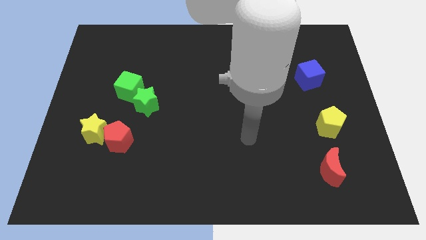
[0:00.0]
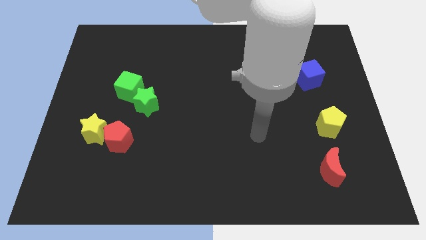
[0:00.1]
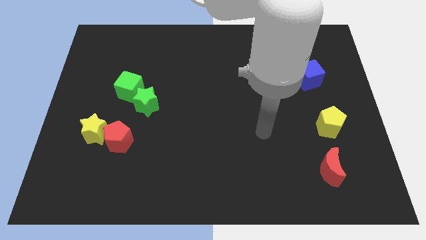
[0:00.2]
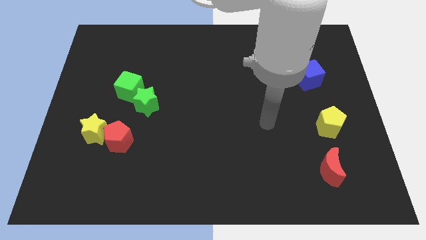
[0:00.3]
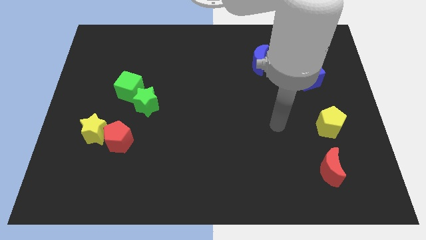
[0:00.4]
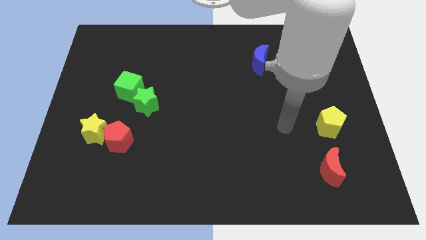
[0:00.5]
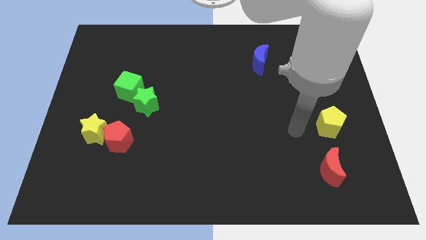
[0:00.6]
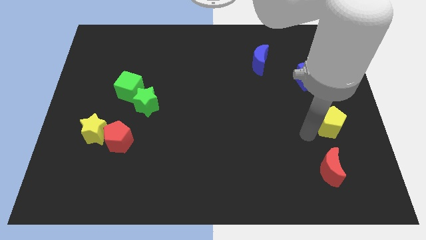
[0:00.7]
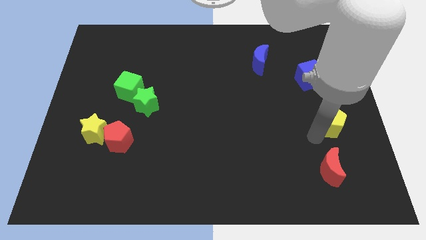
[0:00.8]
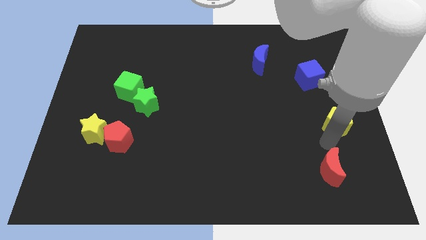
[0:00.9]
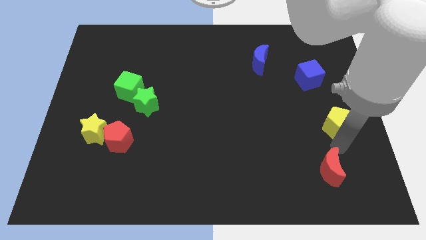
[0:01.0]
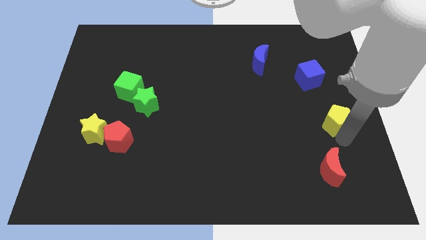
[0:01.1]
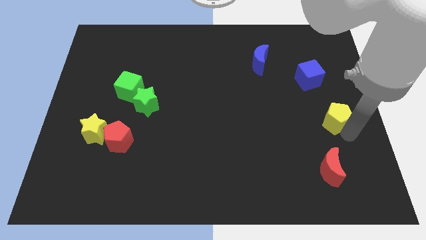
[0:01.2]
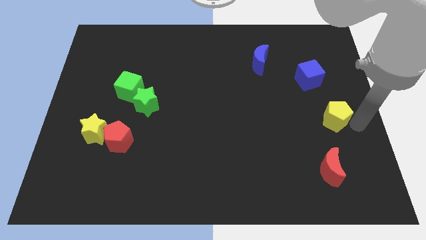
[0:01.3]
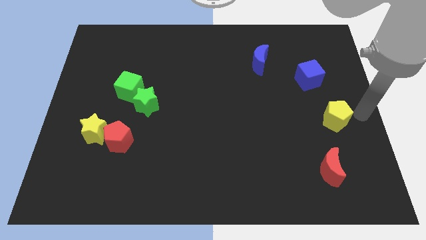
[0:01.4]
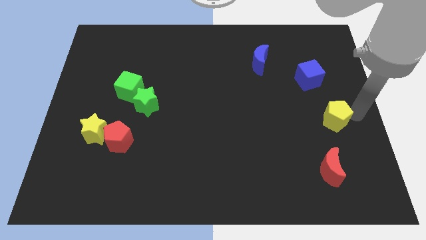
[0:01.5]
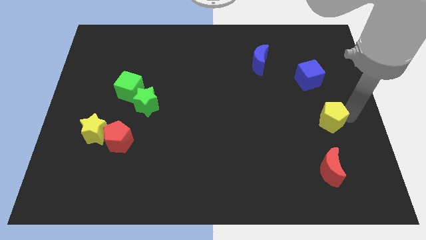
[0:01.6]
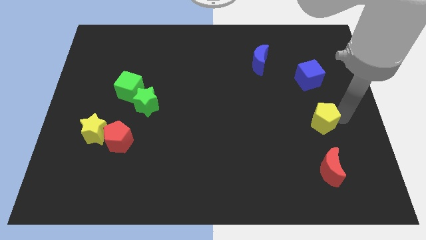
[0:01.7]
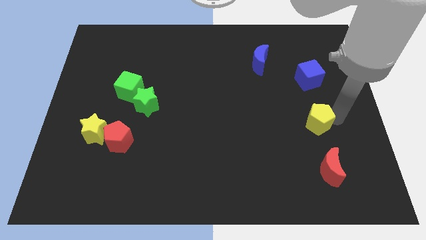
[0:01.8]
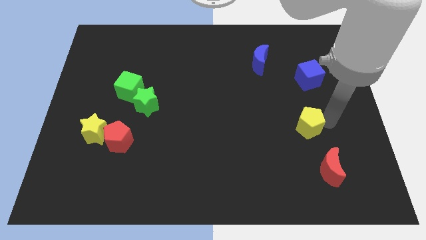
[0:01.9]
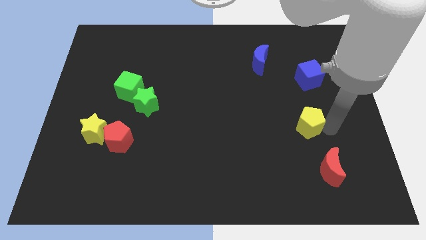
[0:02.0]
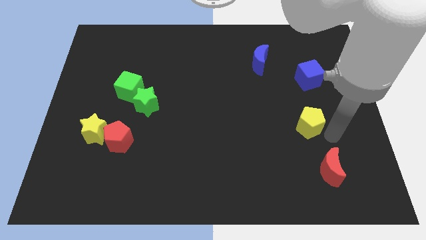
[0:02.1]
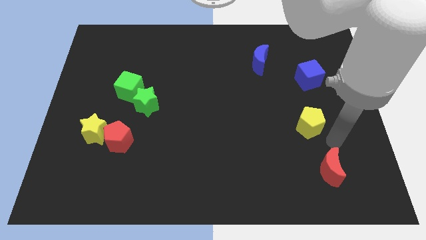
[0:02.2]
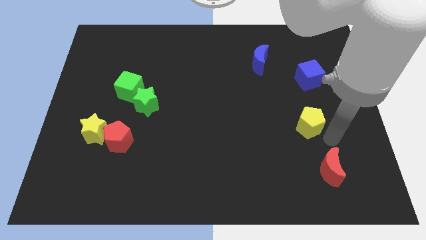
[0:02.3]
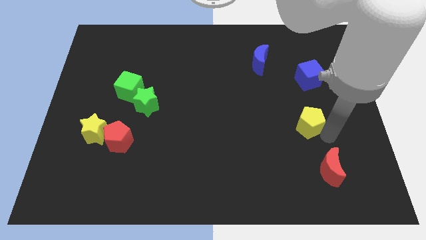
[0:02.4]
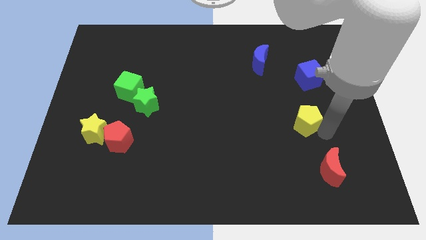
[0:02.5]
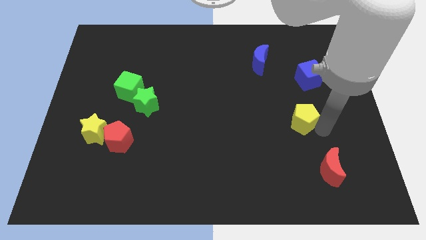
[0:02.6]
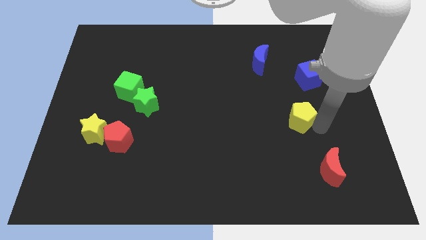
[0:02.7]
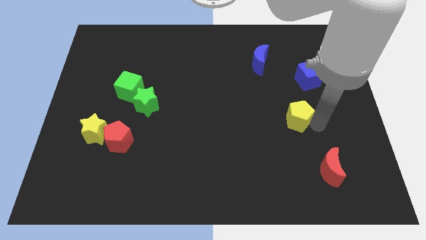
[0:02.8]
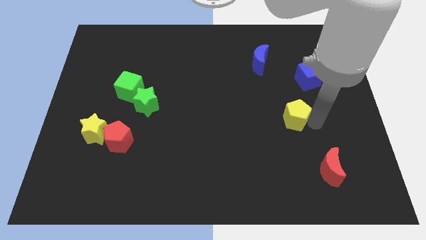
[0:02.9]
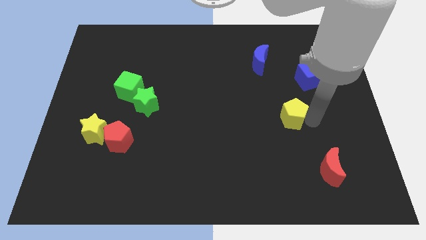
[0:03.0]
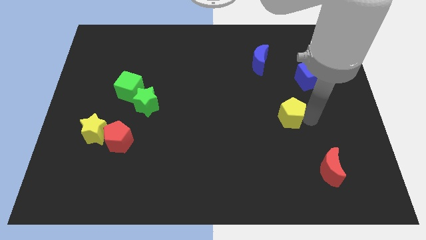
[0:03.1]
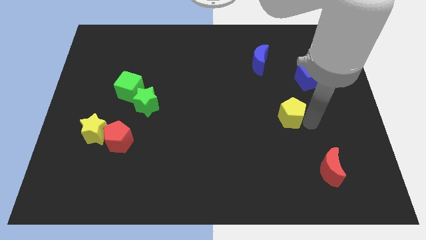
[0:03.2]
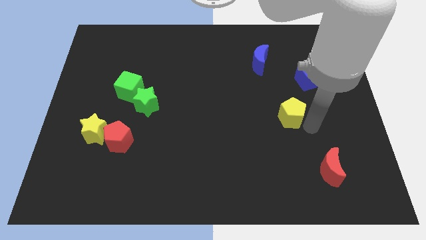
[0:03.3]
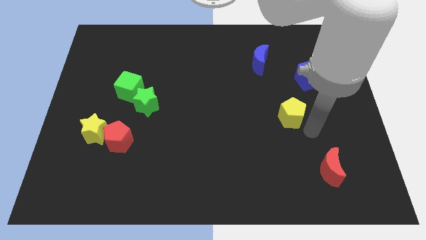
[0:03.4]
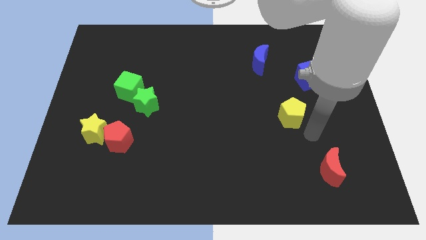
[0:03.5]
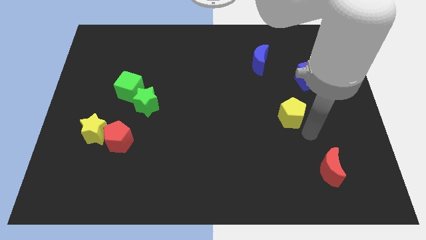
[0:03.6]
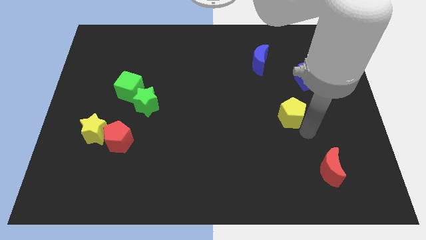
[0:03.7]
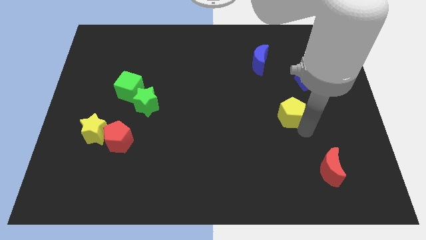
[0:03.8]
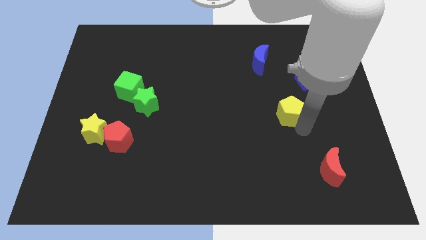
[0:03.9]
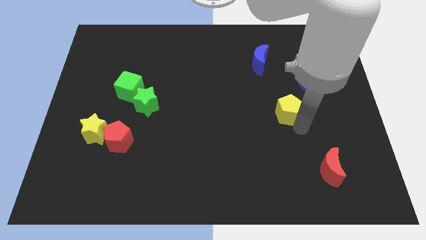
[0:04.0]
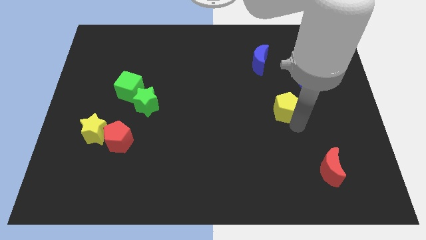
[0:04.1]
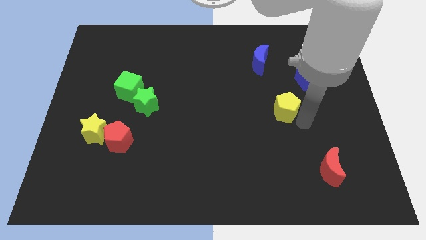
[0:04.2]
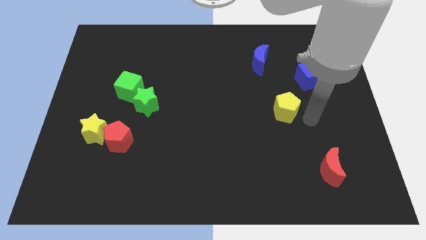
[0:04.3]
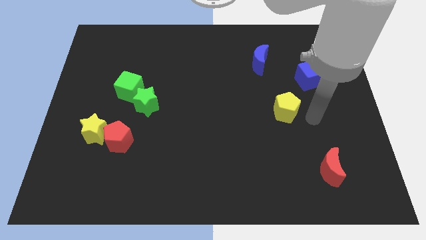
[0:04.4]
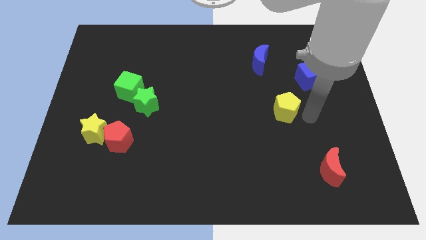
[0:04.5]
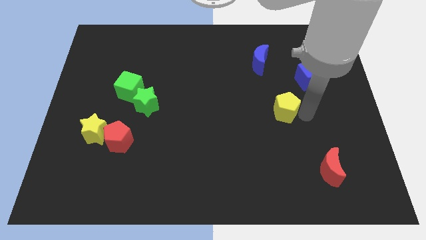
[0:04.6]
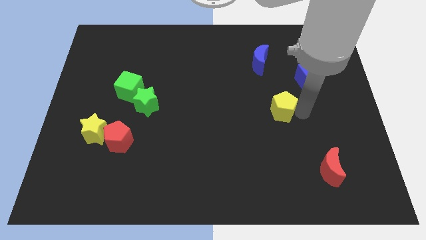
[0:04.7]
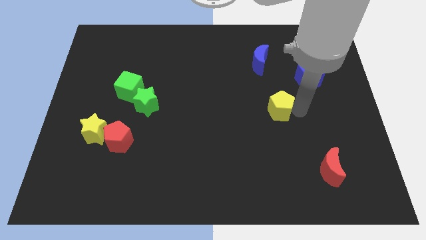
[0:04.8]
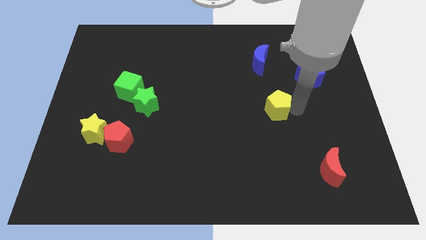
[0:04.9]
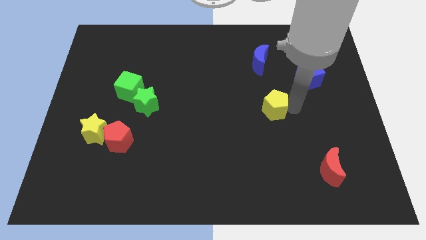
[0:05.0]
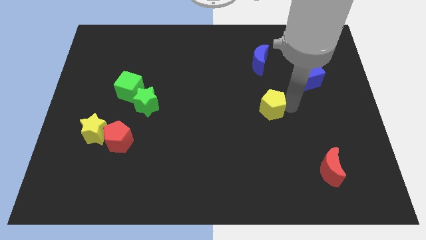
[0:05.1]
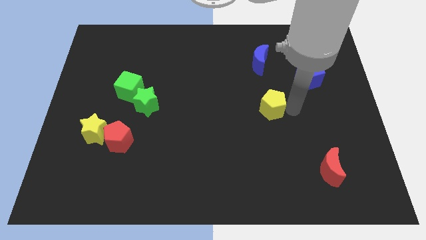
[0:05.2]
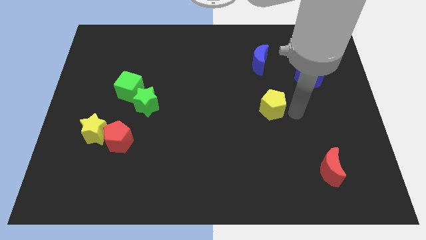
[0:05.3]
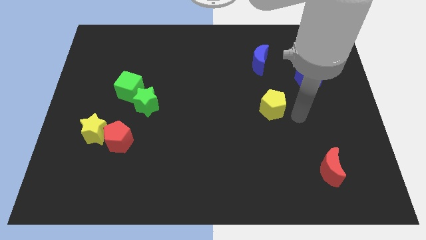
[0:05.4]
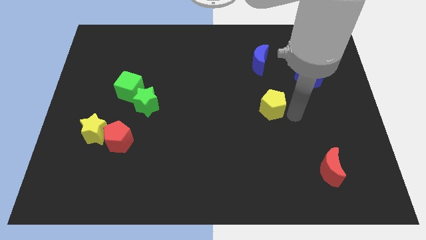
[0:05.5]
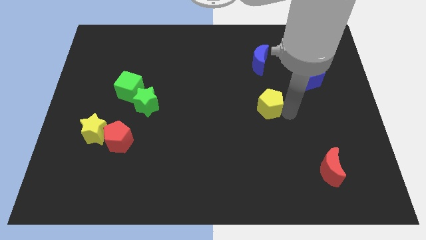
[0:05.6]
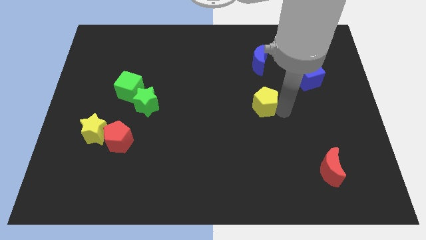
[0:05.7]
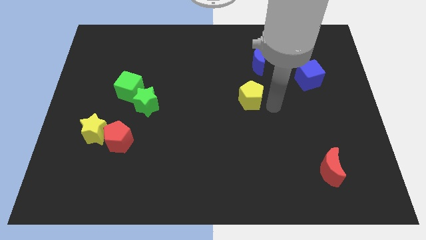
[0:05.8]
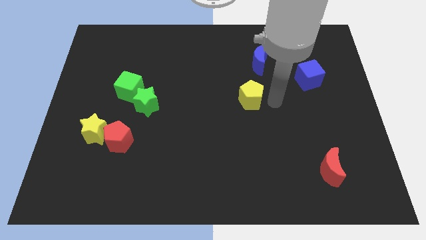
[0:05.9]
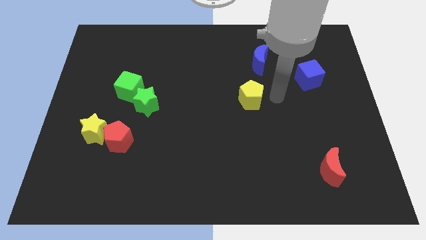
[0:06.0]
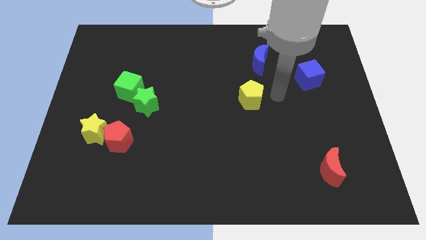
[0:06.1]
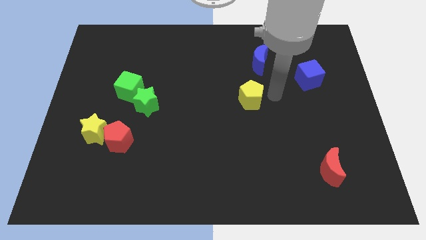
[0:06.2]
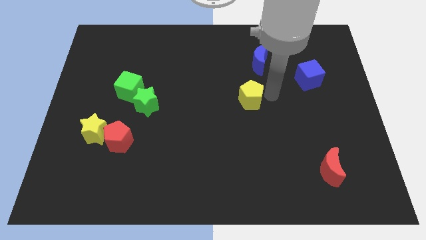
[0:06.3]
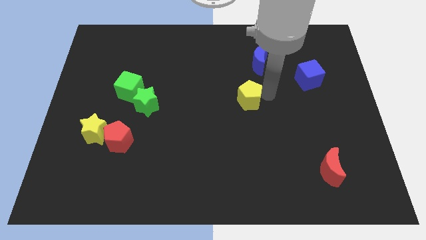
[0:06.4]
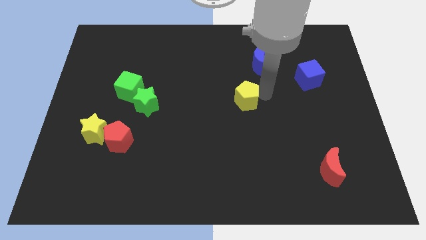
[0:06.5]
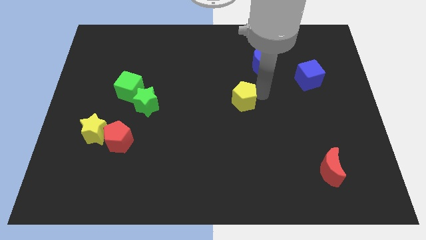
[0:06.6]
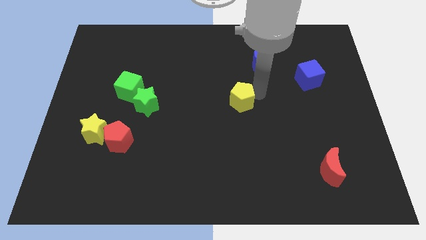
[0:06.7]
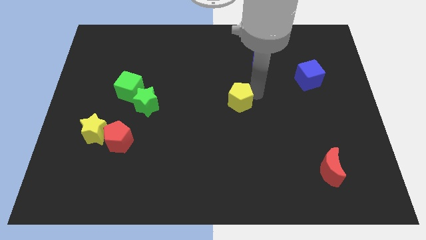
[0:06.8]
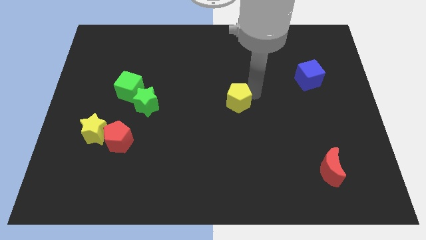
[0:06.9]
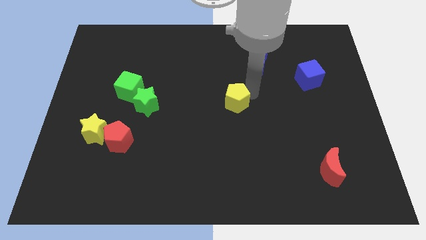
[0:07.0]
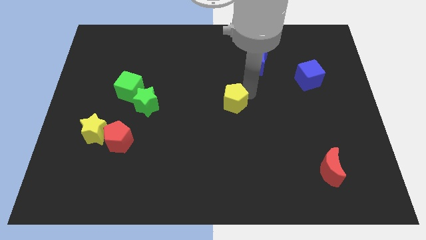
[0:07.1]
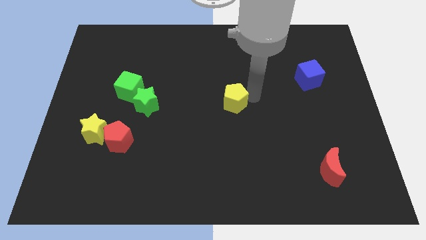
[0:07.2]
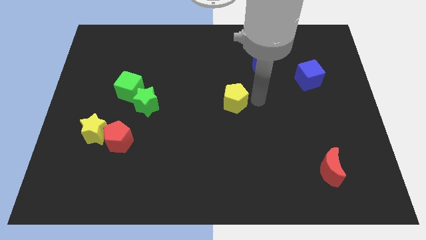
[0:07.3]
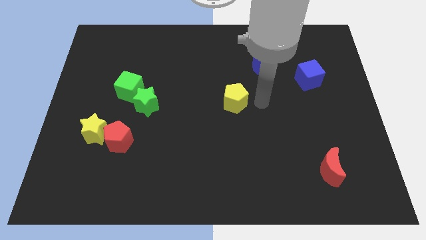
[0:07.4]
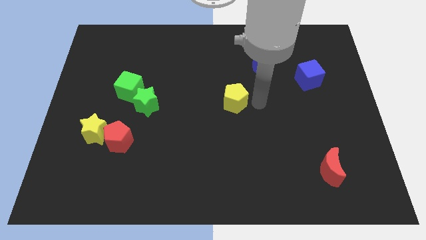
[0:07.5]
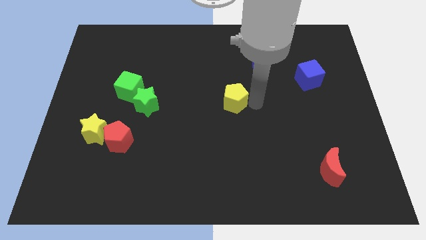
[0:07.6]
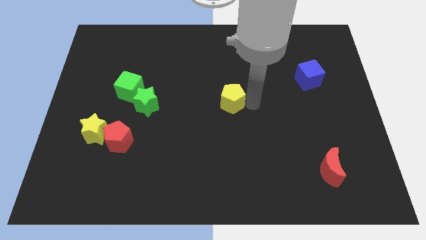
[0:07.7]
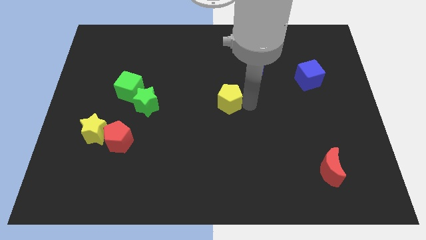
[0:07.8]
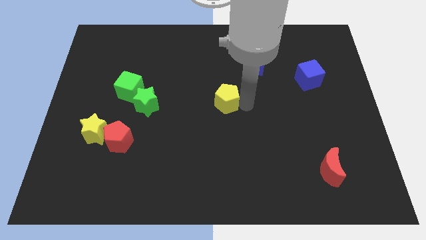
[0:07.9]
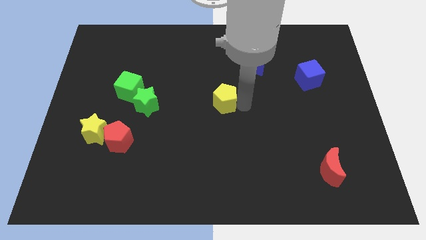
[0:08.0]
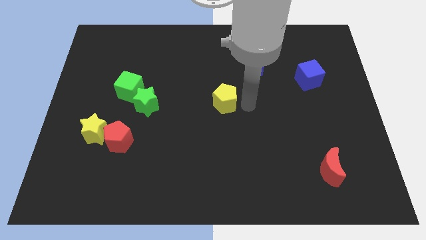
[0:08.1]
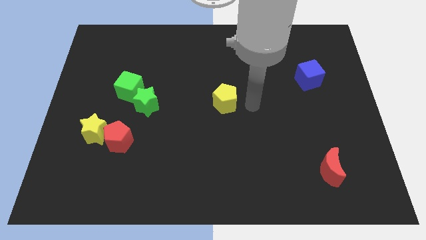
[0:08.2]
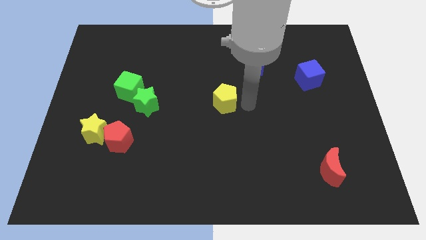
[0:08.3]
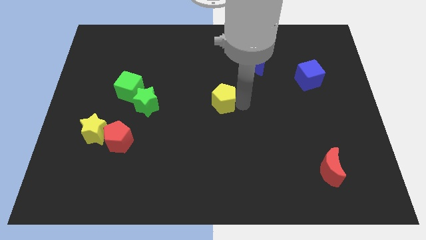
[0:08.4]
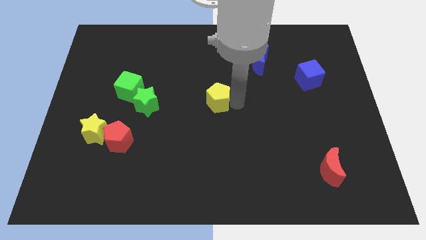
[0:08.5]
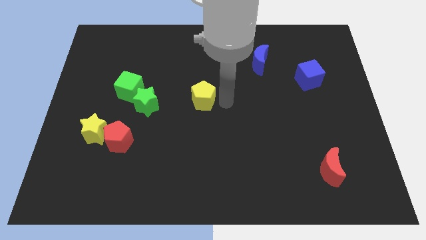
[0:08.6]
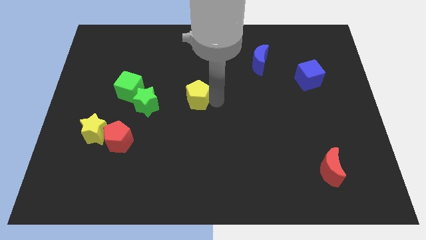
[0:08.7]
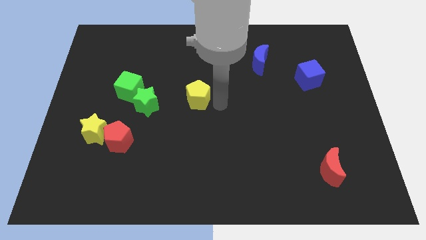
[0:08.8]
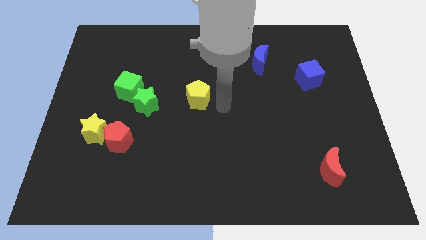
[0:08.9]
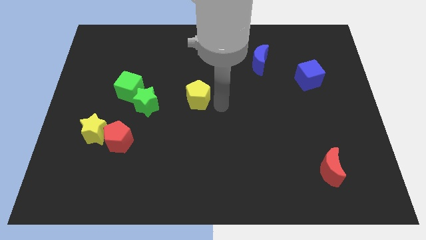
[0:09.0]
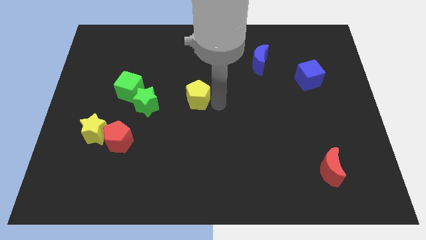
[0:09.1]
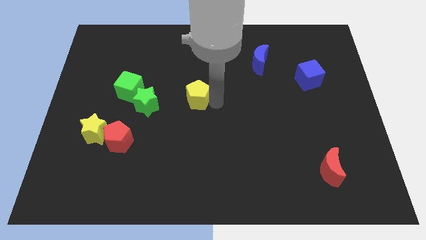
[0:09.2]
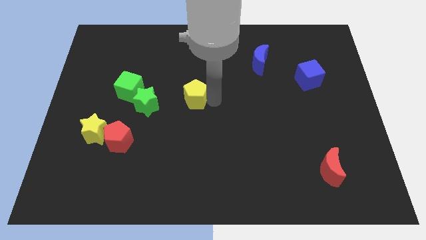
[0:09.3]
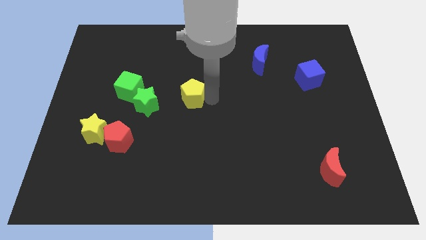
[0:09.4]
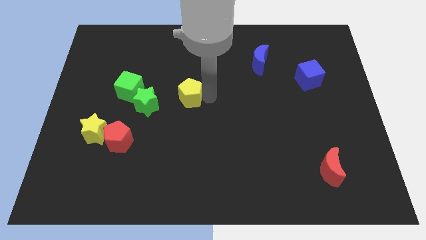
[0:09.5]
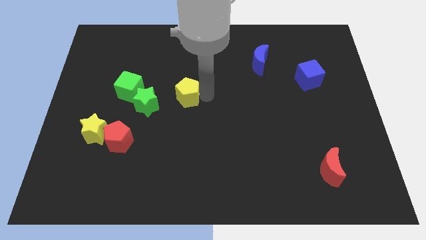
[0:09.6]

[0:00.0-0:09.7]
push the yellow pentagon diagonally up and to the right of the green star
